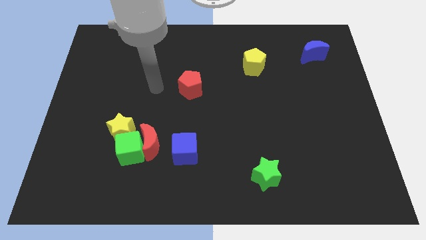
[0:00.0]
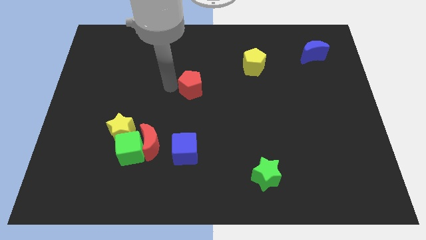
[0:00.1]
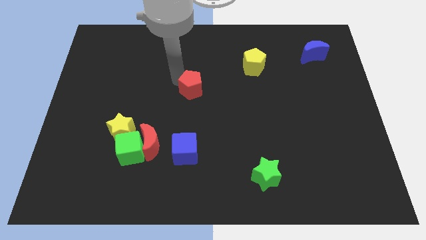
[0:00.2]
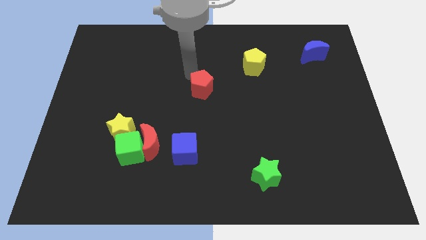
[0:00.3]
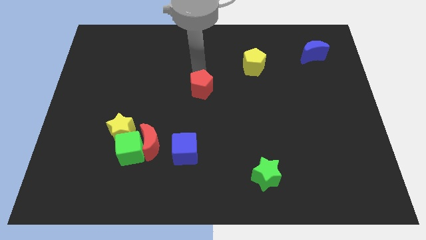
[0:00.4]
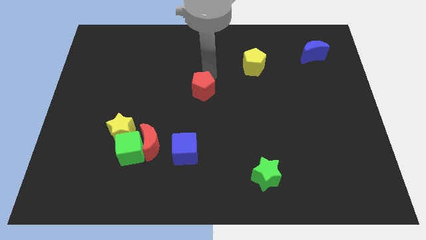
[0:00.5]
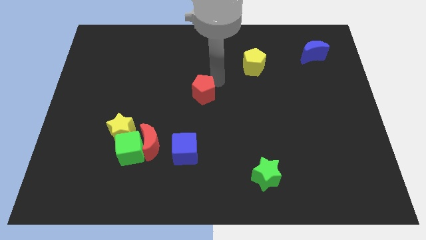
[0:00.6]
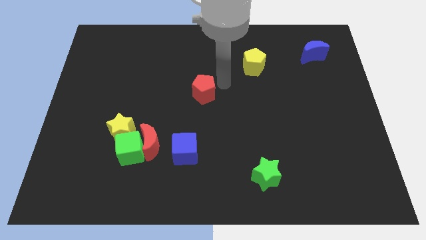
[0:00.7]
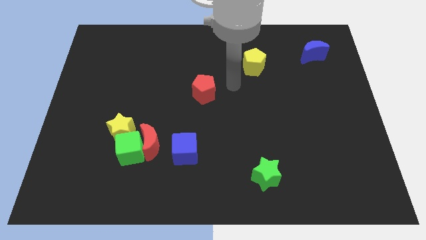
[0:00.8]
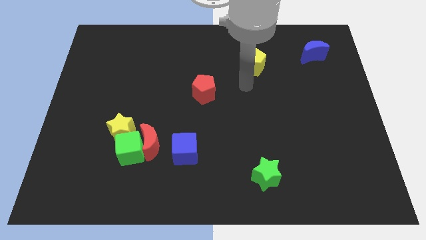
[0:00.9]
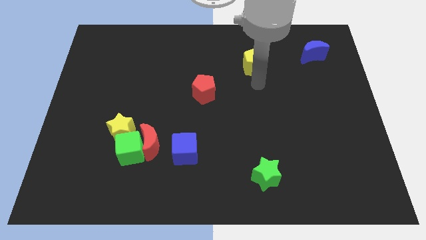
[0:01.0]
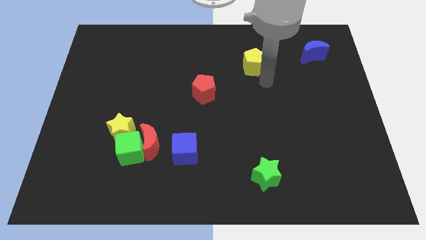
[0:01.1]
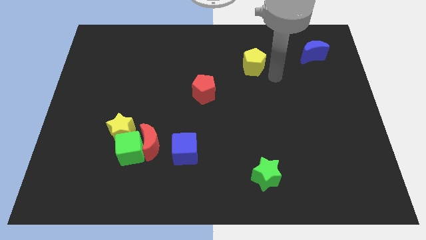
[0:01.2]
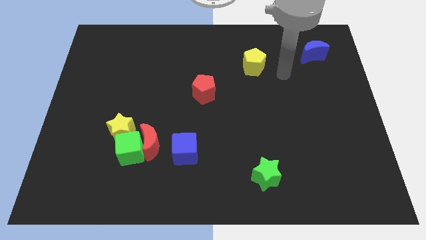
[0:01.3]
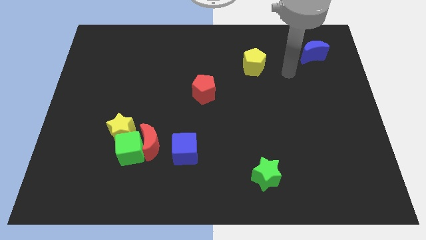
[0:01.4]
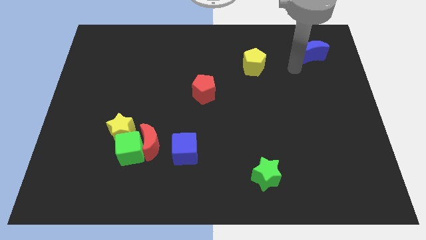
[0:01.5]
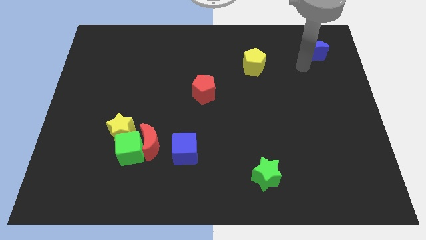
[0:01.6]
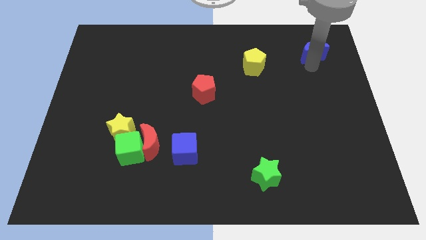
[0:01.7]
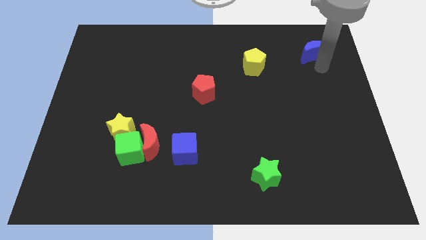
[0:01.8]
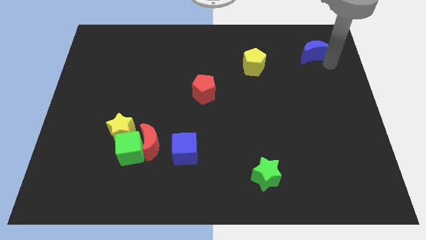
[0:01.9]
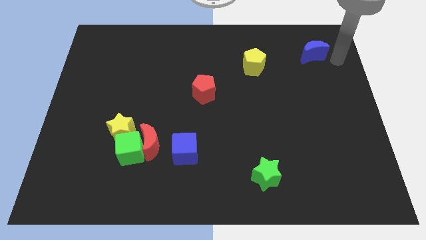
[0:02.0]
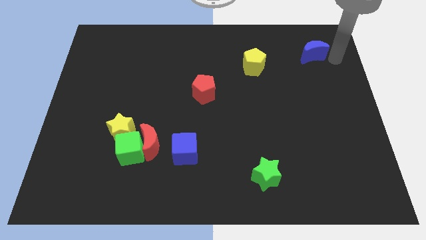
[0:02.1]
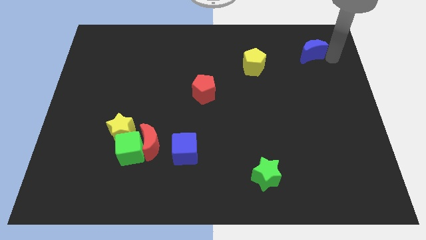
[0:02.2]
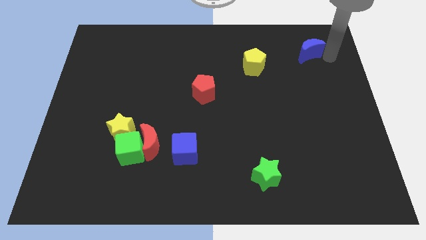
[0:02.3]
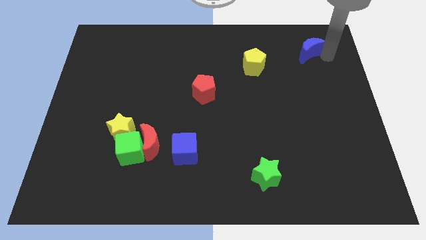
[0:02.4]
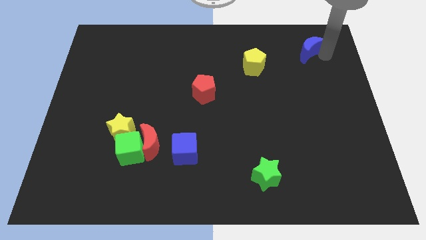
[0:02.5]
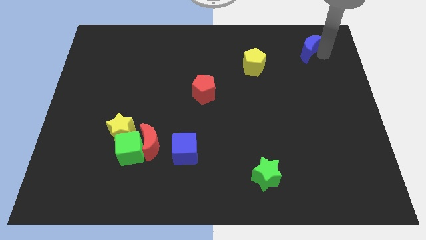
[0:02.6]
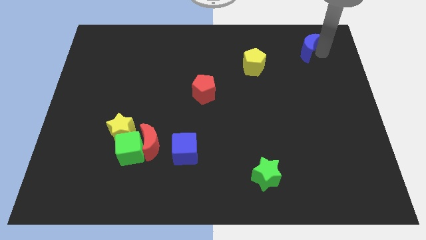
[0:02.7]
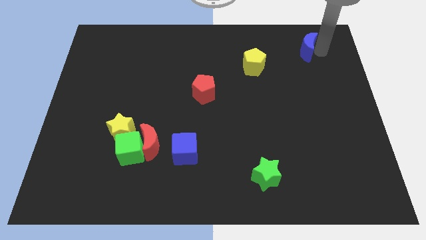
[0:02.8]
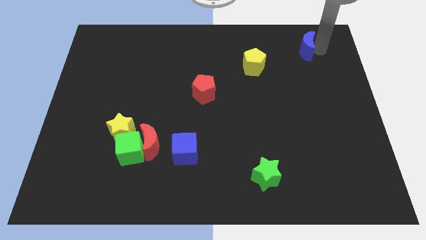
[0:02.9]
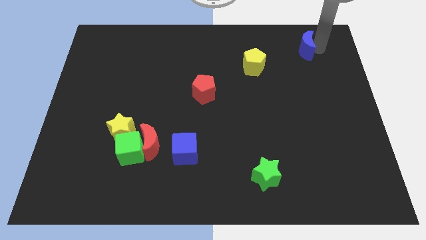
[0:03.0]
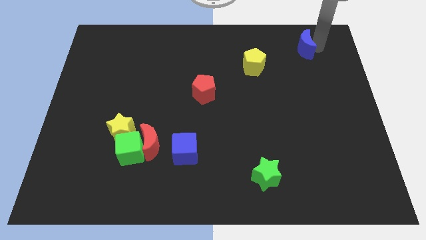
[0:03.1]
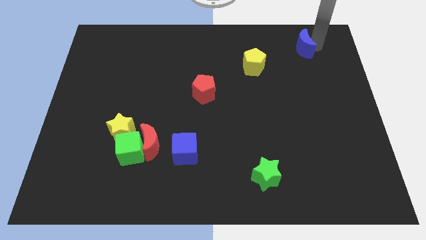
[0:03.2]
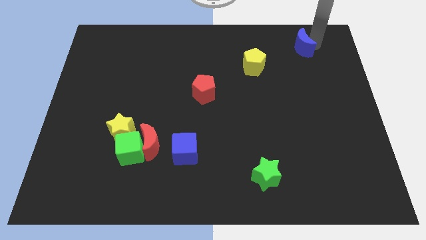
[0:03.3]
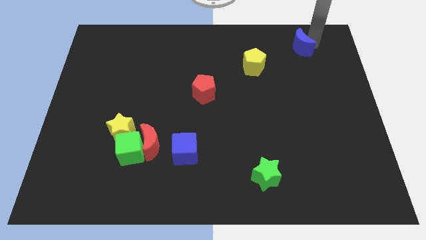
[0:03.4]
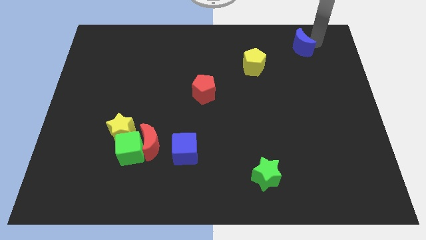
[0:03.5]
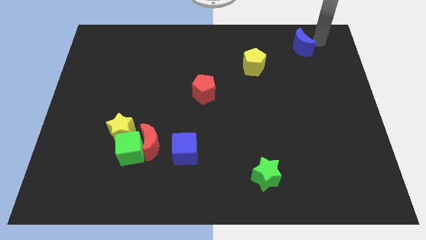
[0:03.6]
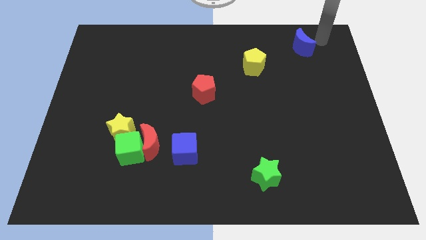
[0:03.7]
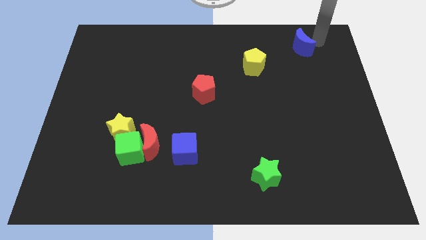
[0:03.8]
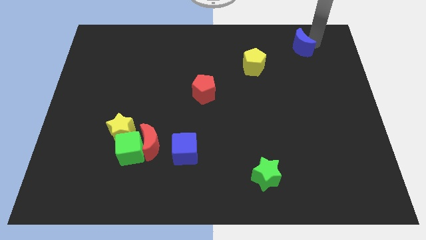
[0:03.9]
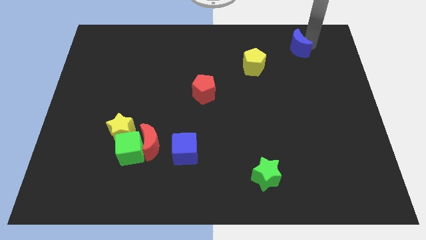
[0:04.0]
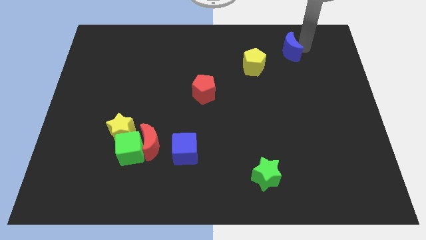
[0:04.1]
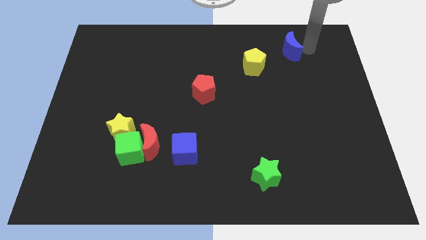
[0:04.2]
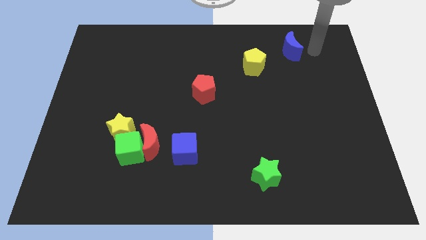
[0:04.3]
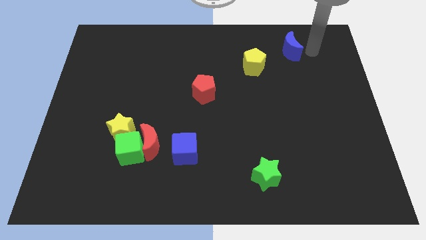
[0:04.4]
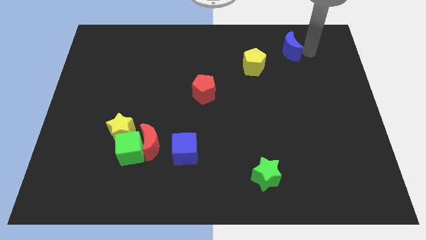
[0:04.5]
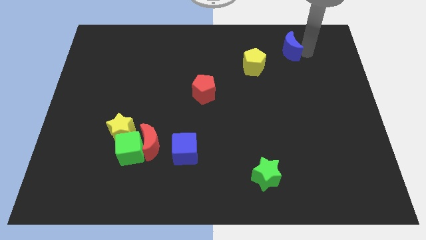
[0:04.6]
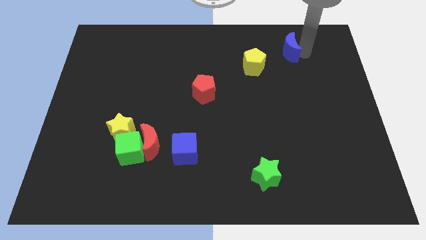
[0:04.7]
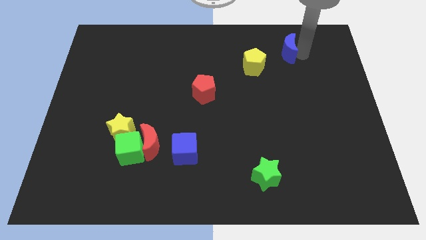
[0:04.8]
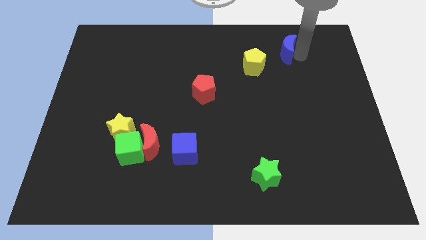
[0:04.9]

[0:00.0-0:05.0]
slightly slide the blue moon to the left

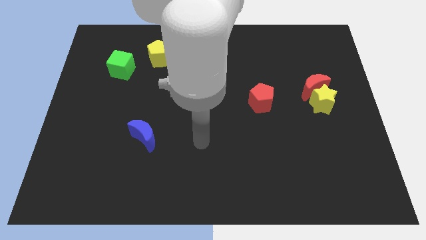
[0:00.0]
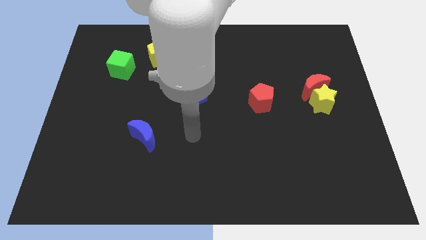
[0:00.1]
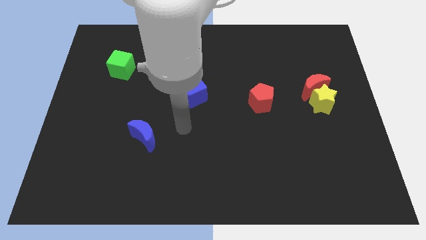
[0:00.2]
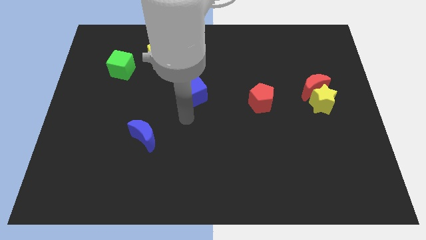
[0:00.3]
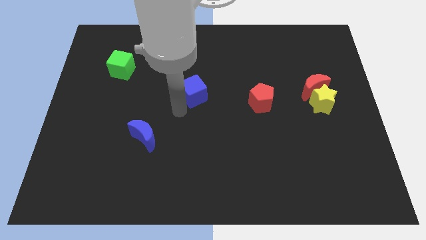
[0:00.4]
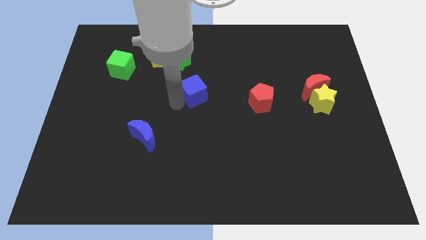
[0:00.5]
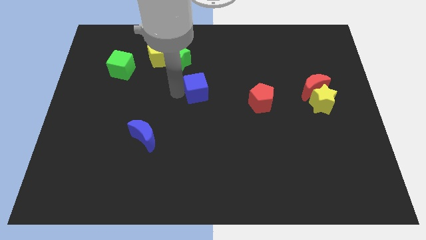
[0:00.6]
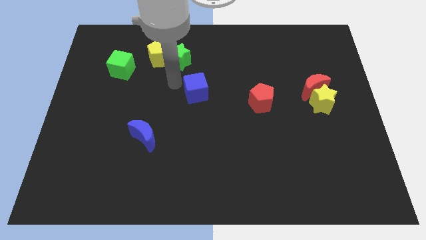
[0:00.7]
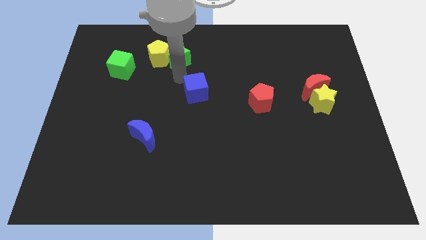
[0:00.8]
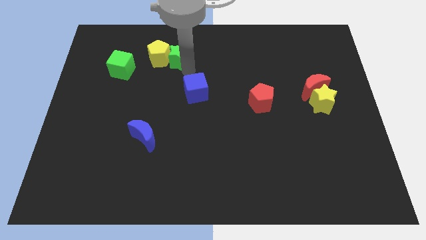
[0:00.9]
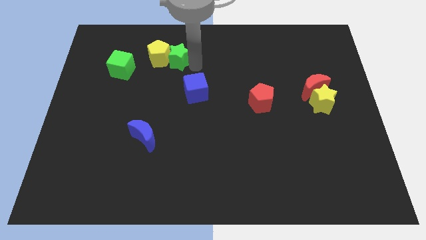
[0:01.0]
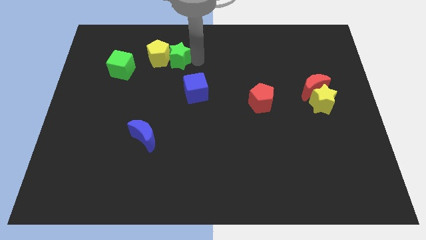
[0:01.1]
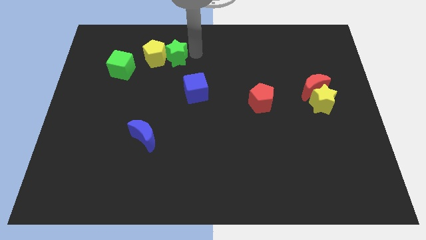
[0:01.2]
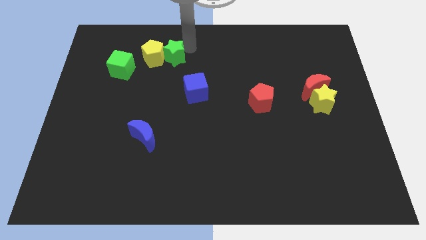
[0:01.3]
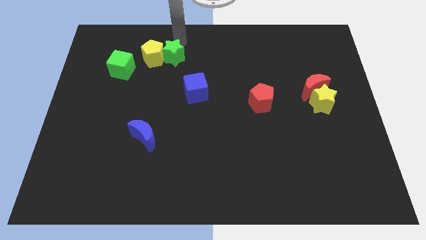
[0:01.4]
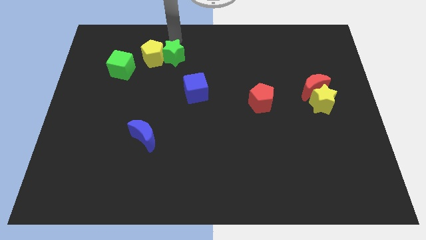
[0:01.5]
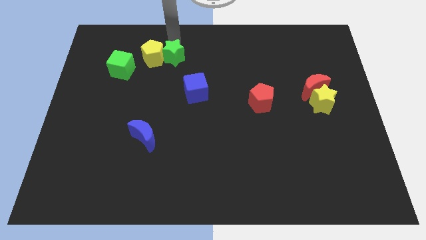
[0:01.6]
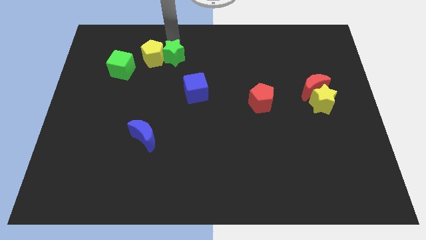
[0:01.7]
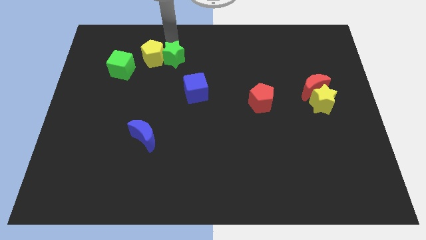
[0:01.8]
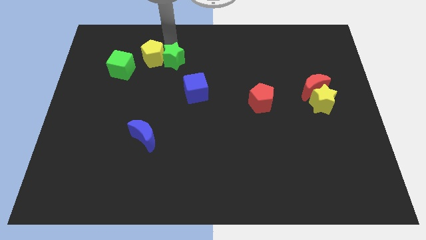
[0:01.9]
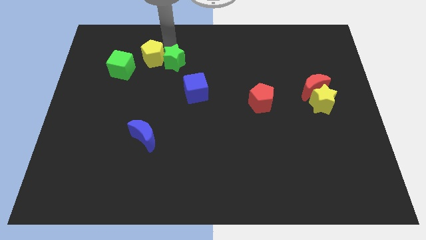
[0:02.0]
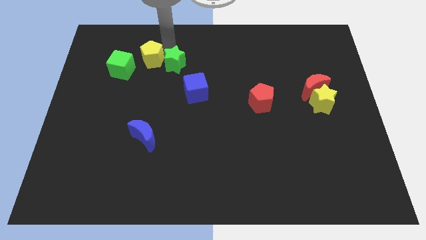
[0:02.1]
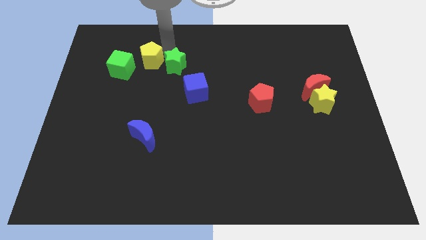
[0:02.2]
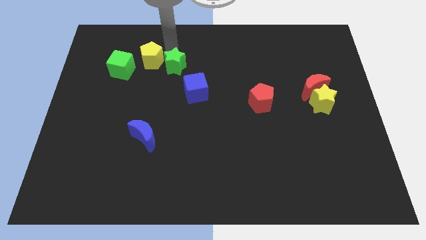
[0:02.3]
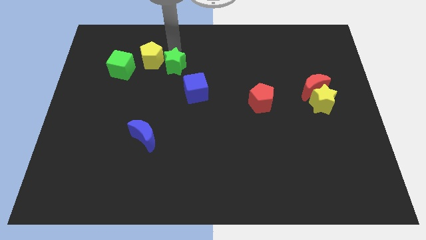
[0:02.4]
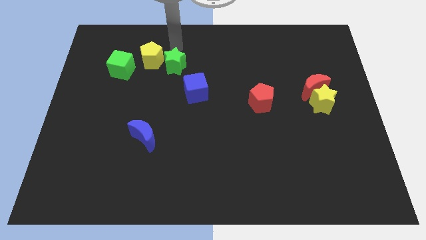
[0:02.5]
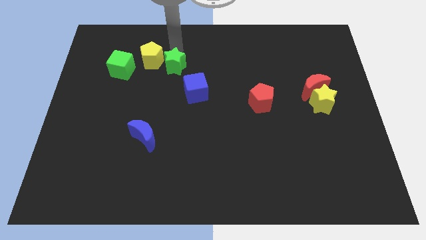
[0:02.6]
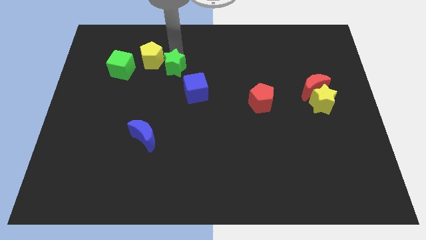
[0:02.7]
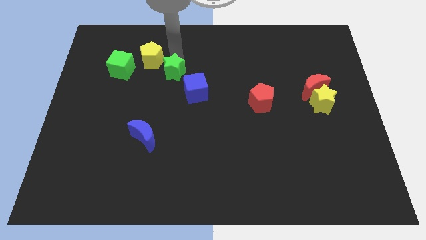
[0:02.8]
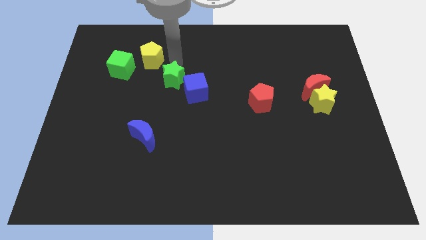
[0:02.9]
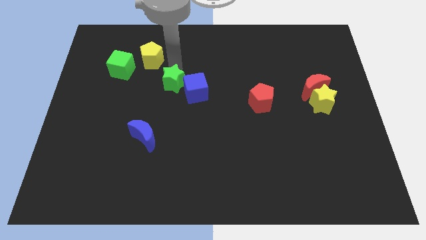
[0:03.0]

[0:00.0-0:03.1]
slide the green star down a little
